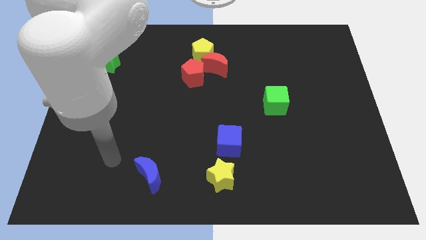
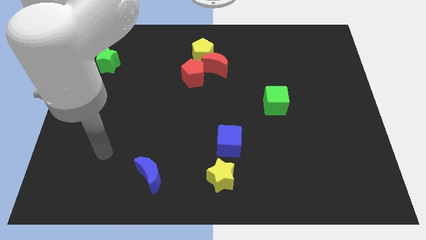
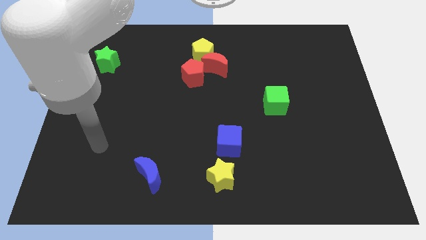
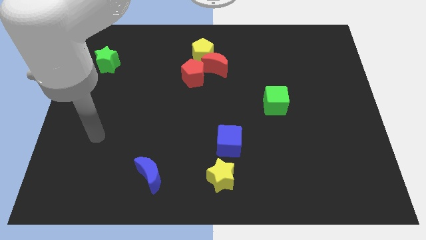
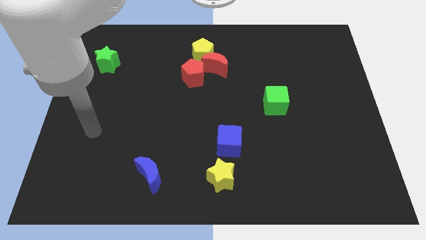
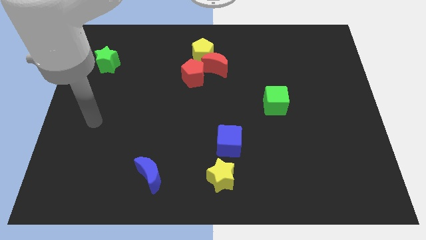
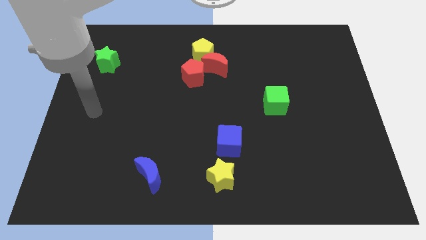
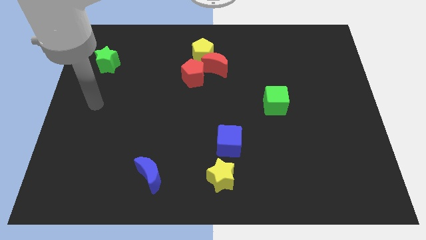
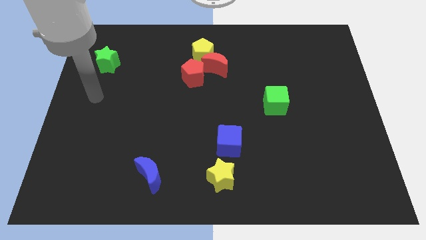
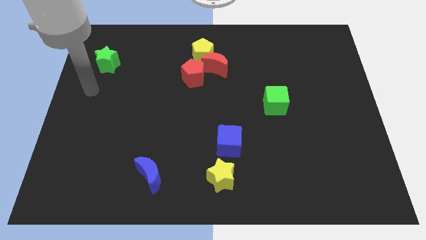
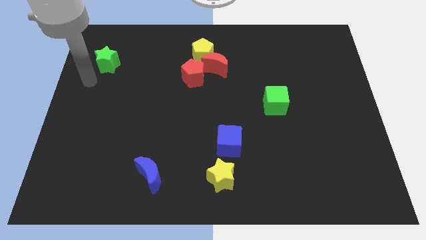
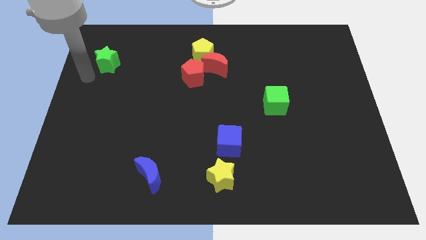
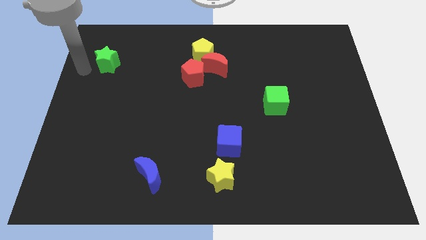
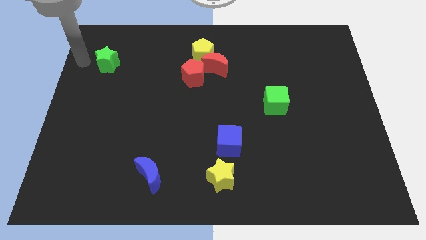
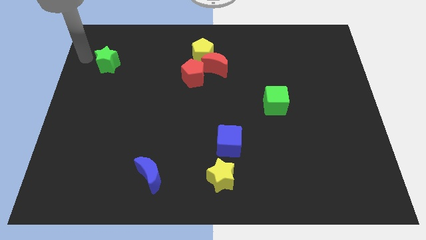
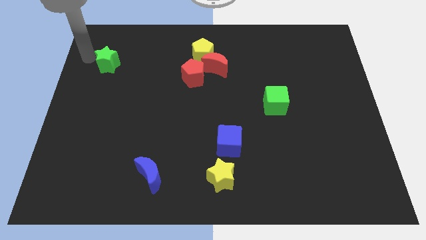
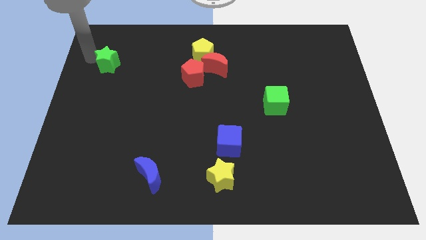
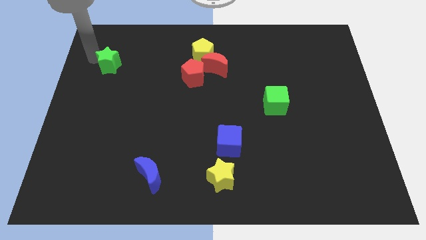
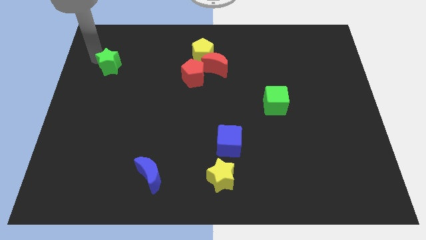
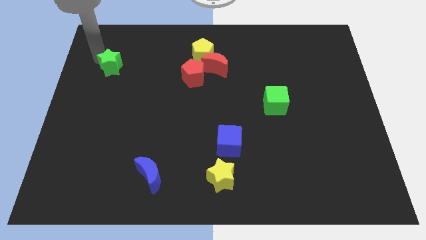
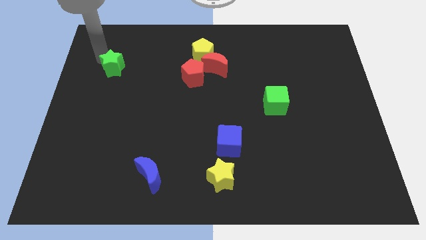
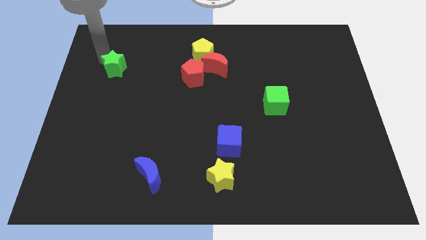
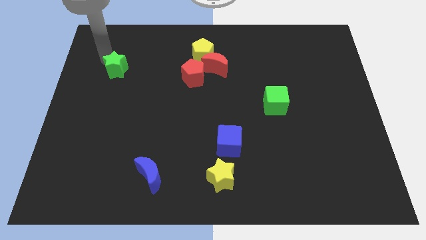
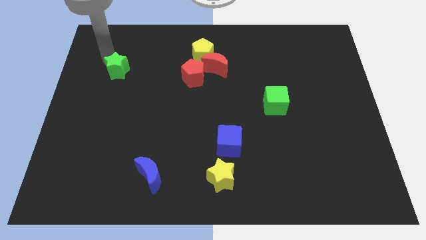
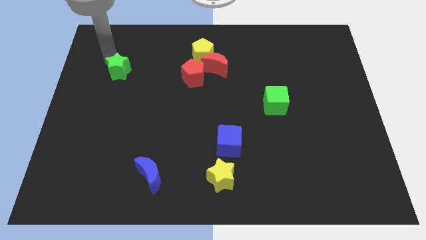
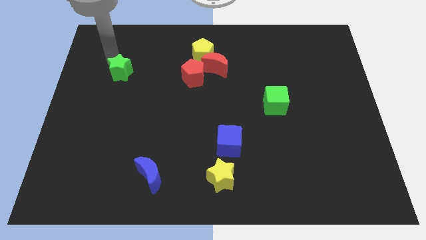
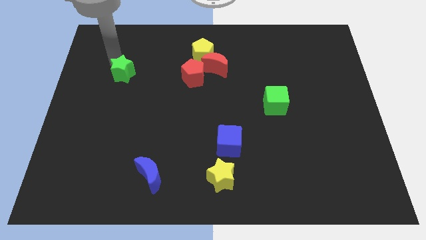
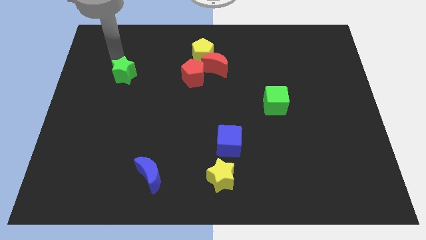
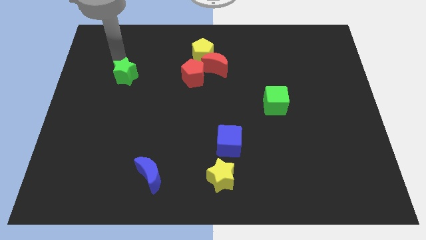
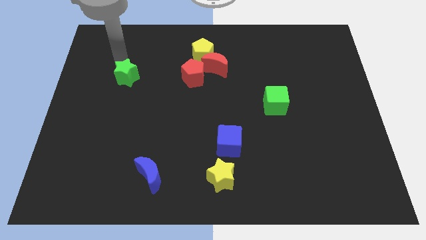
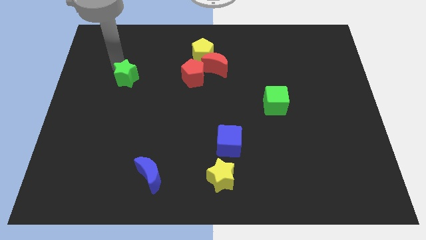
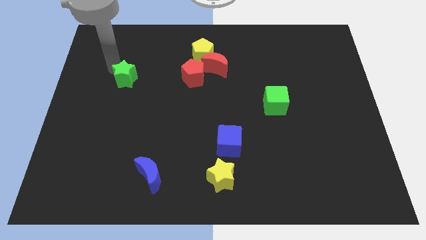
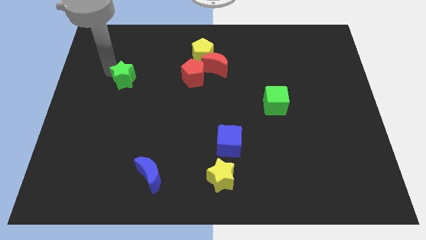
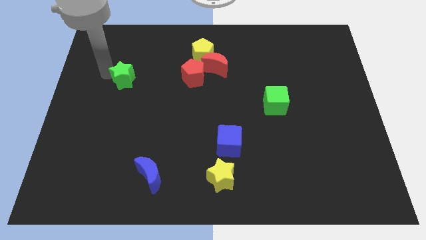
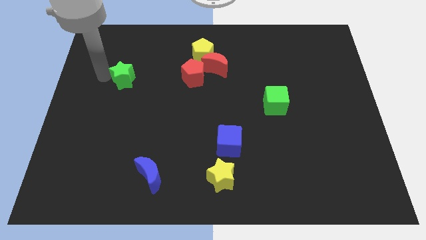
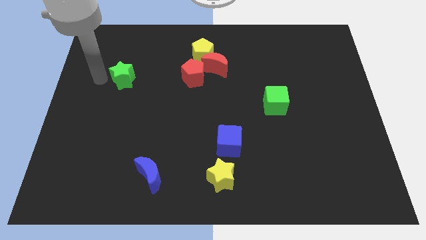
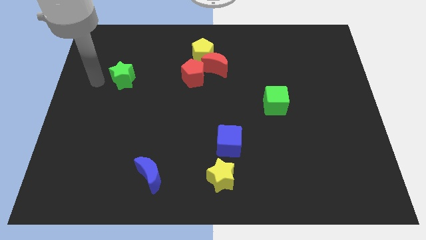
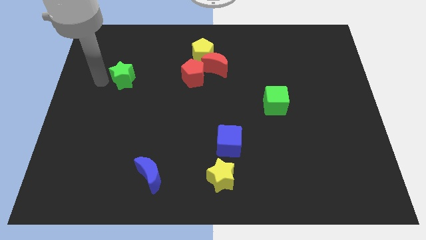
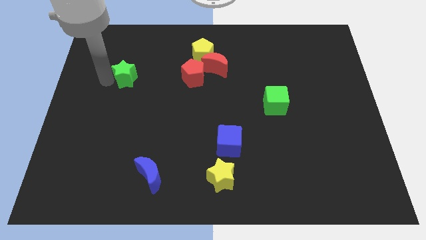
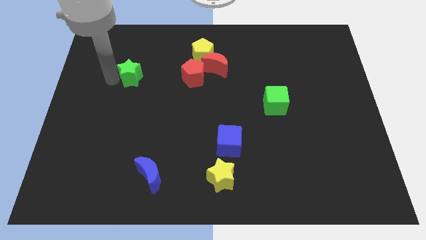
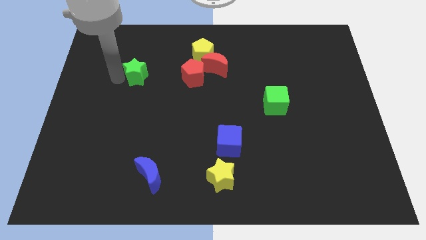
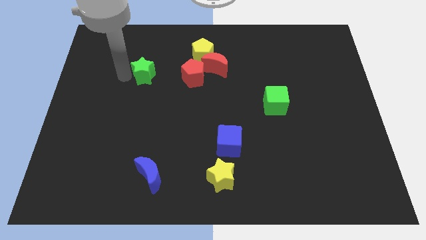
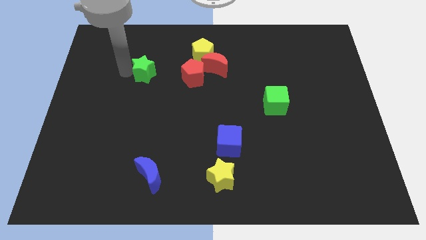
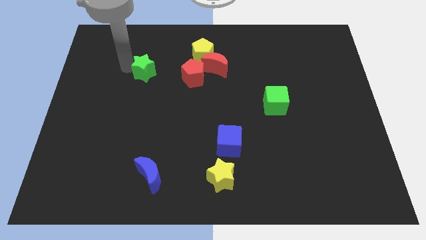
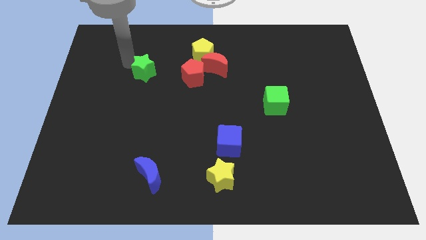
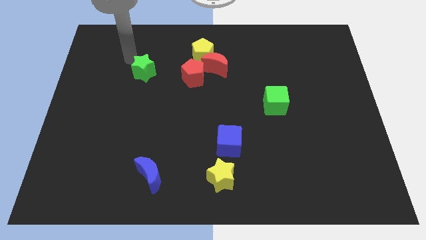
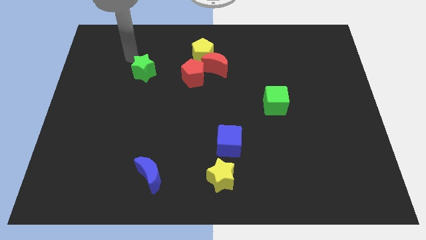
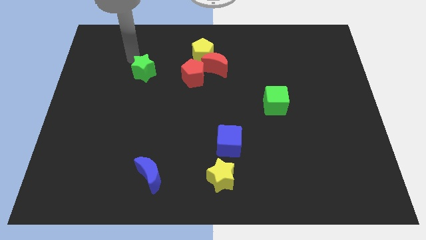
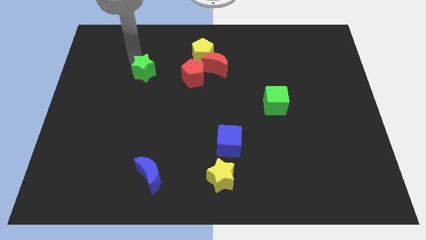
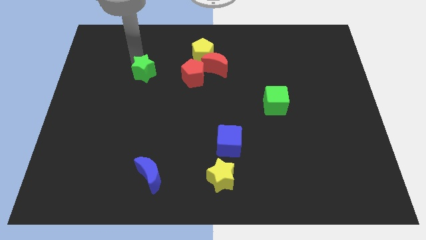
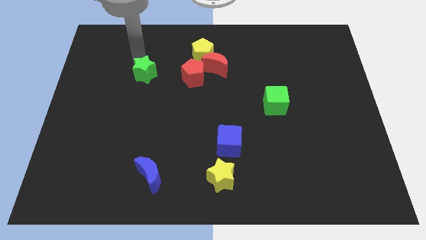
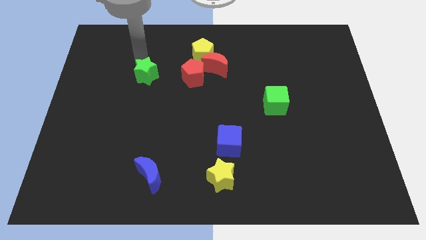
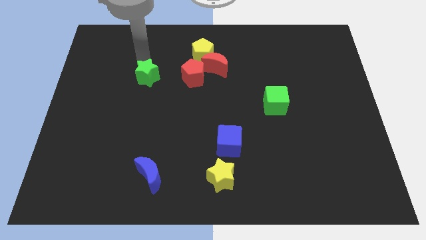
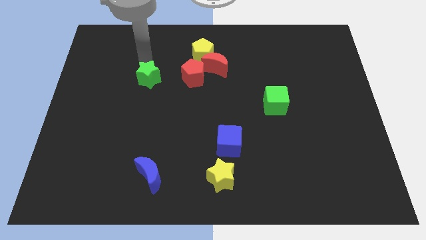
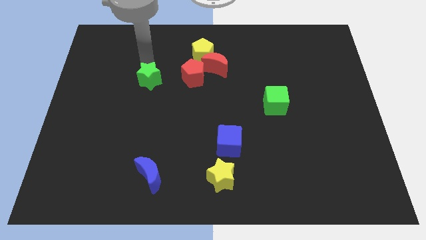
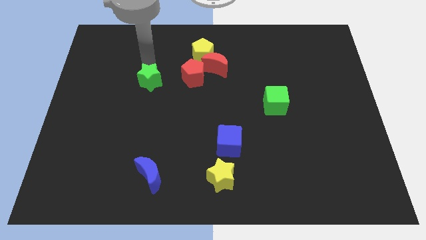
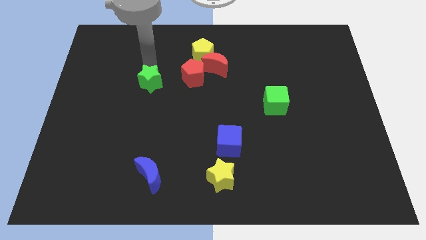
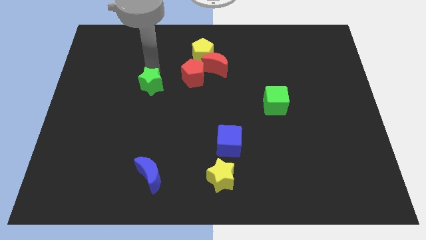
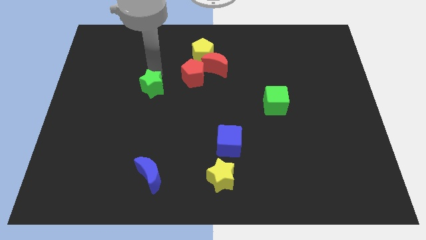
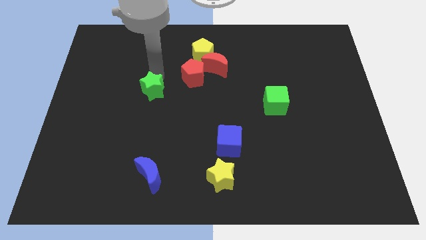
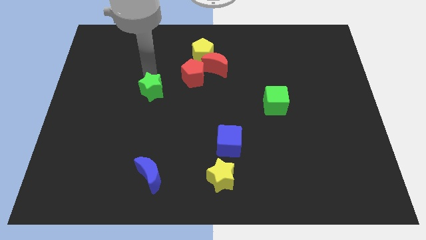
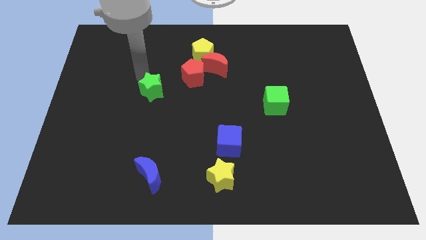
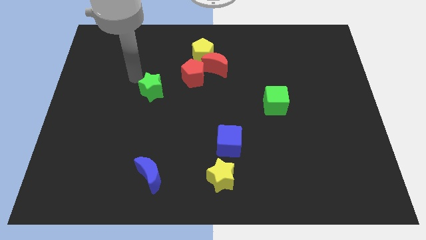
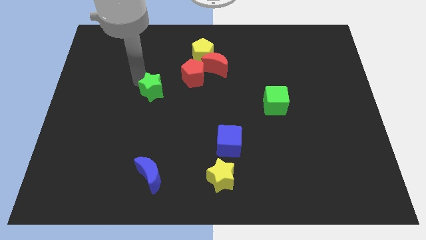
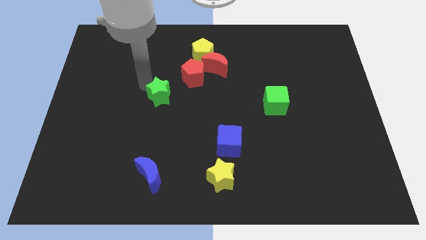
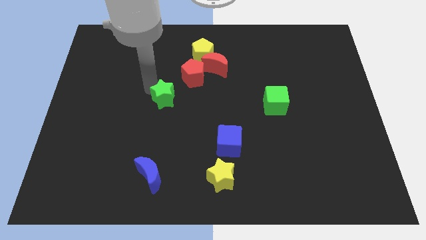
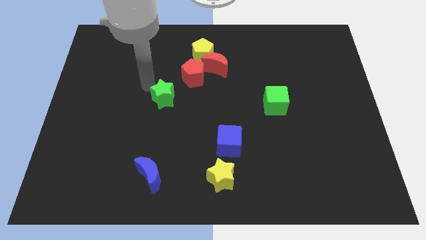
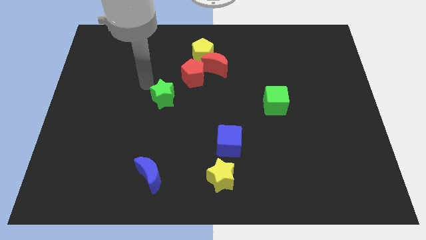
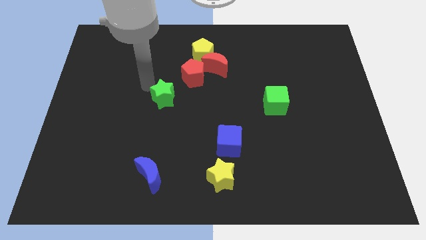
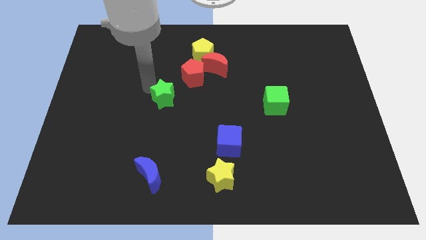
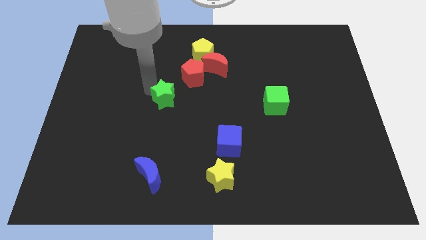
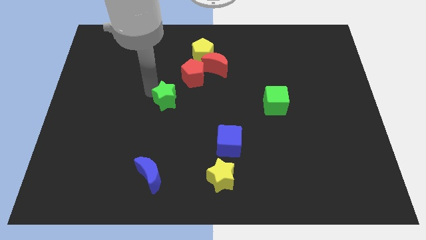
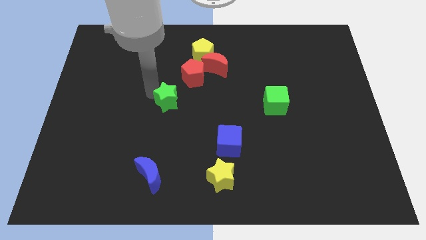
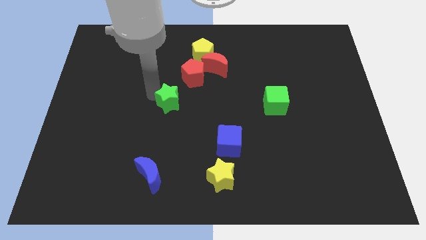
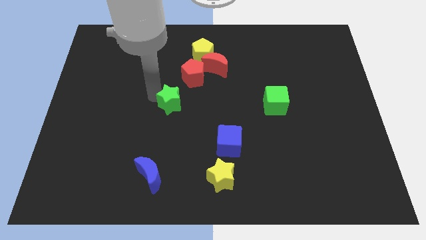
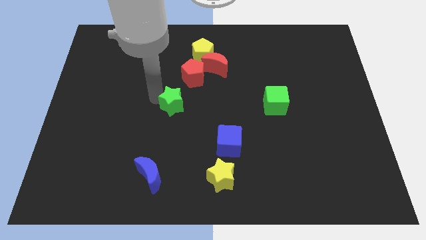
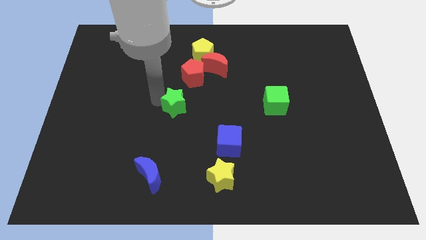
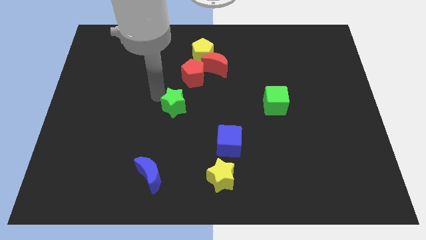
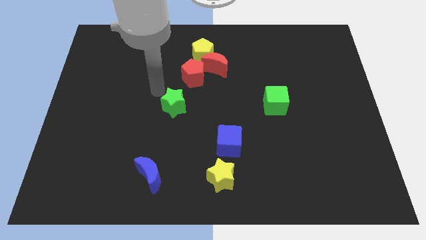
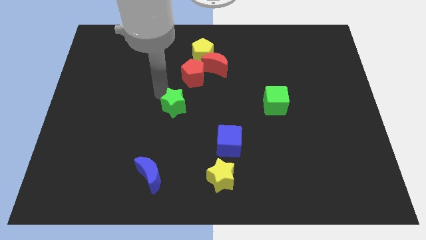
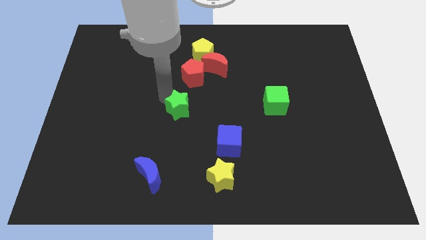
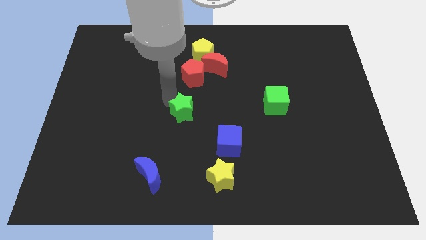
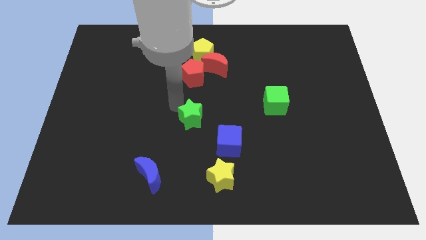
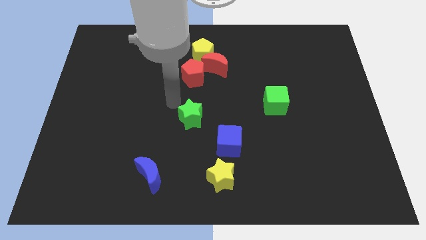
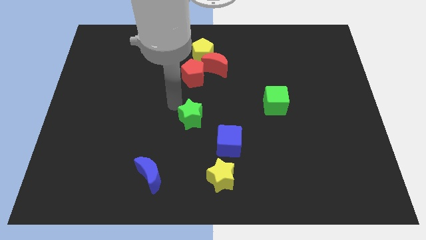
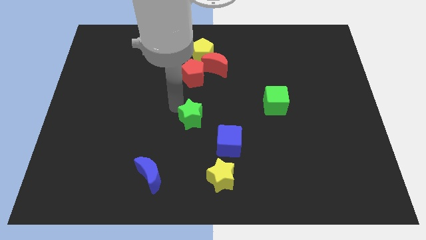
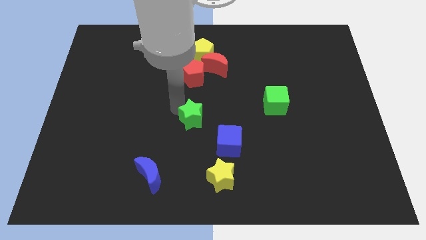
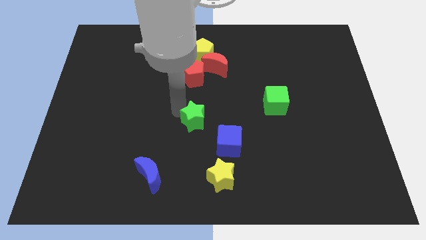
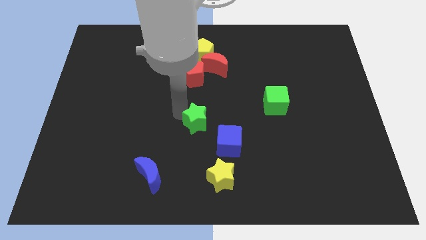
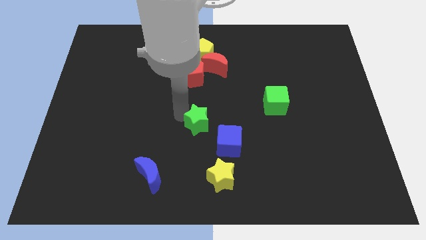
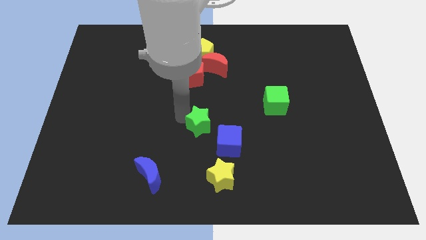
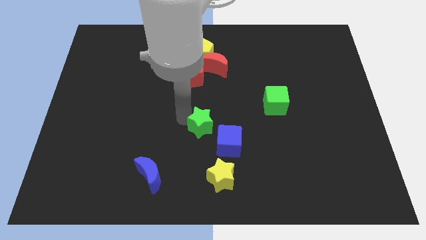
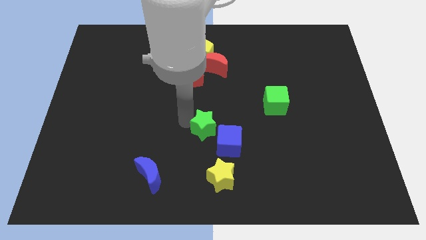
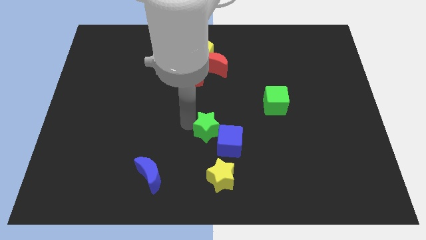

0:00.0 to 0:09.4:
push the green star next to the blue cube
